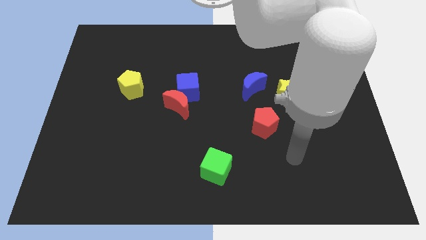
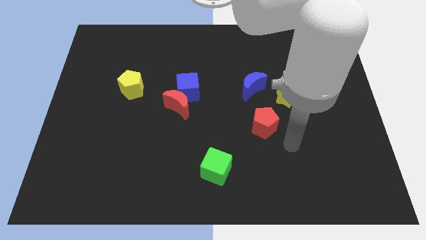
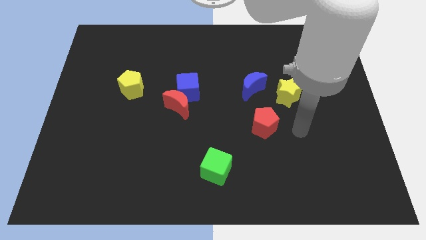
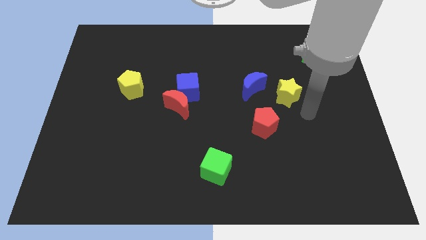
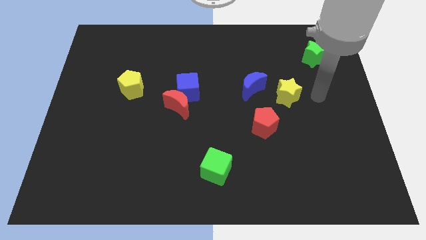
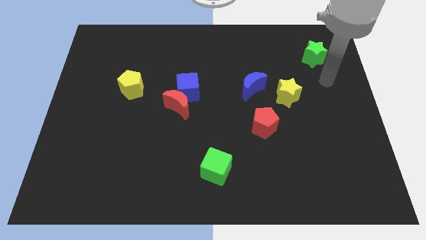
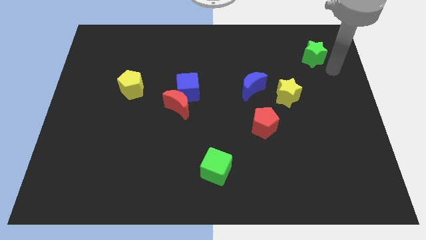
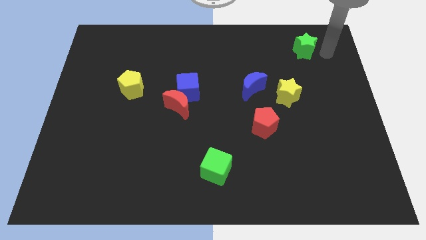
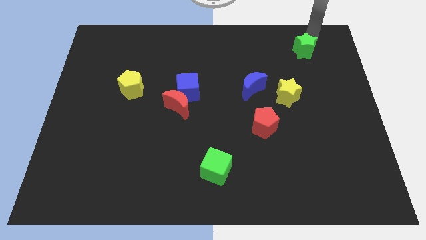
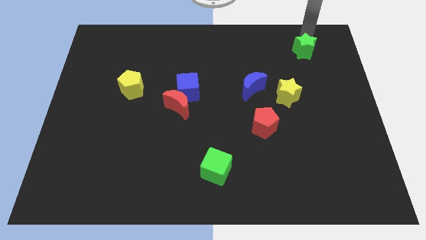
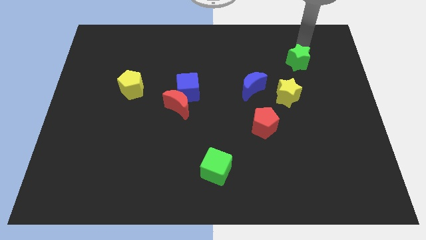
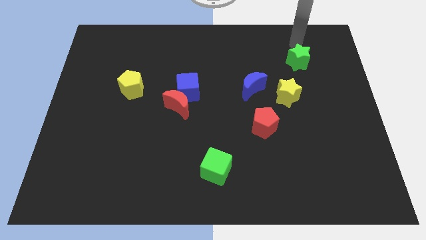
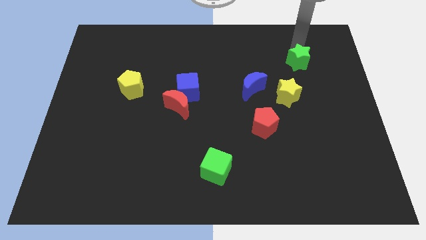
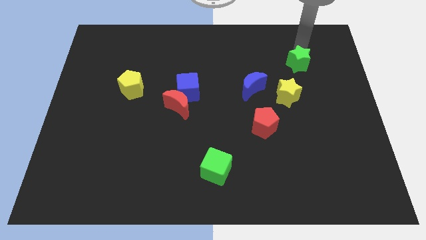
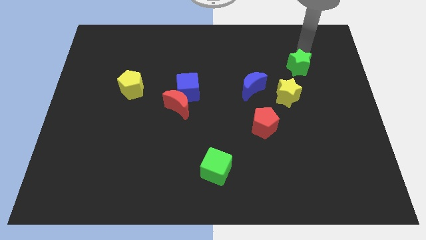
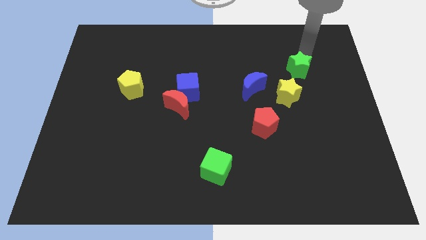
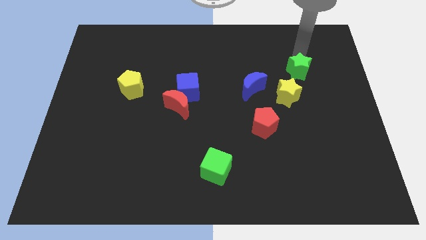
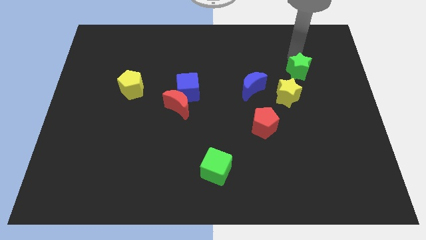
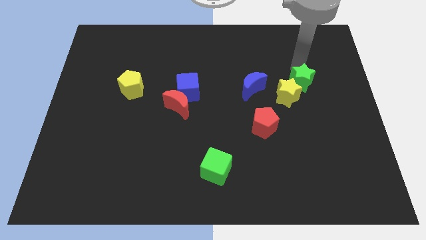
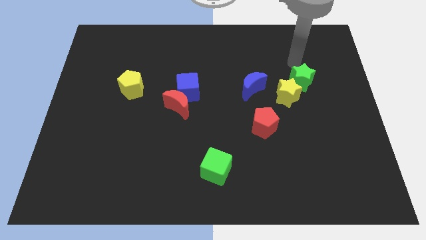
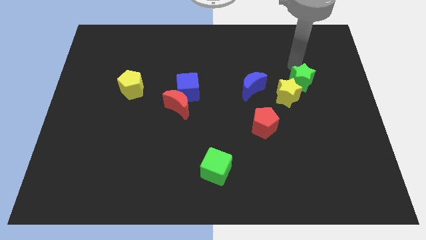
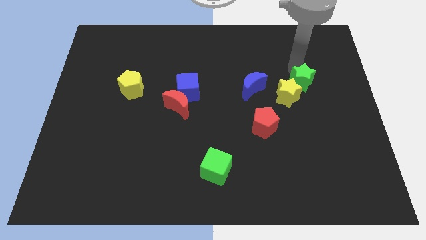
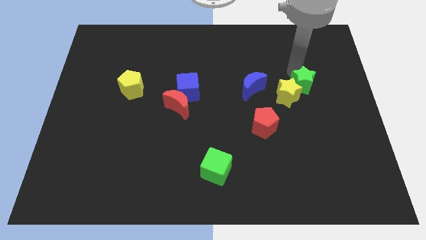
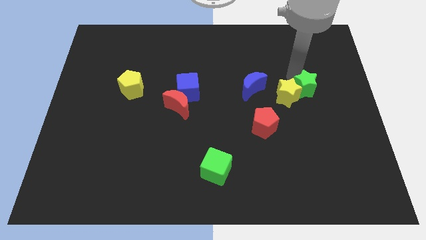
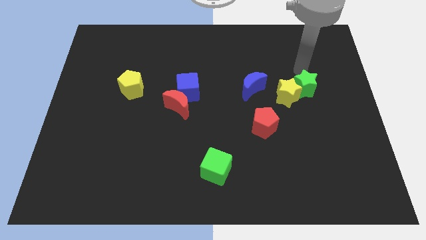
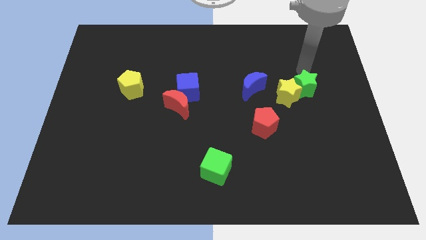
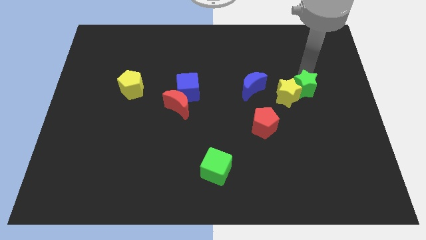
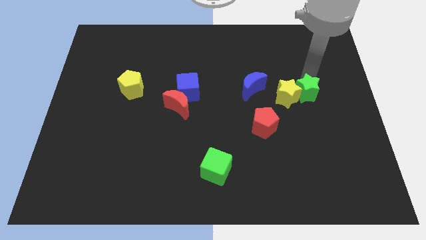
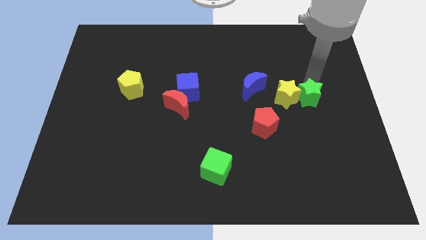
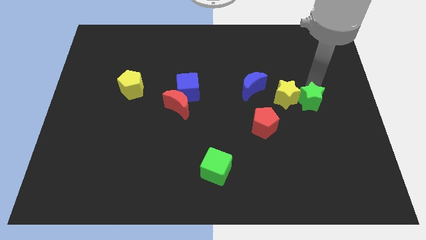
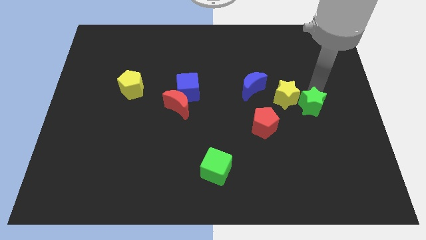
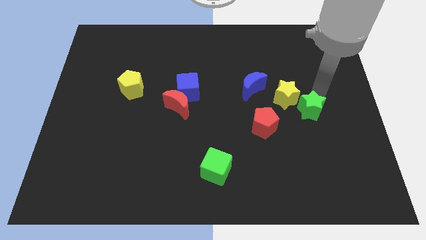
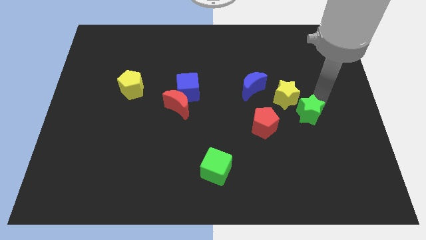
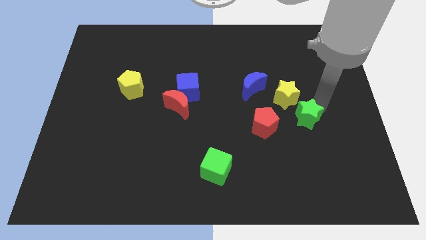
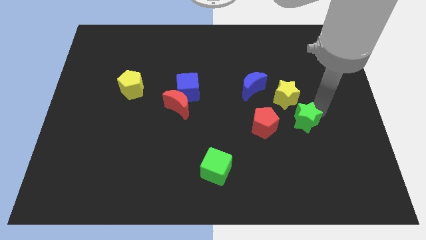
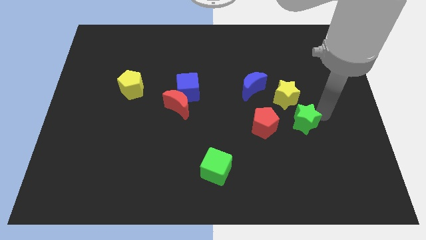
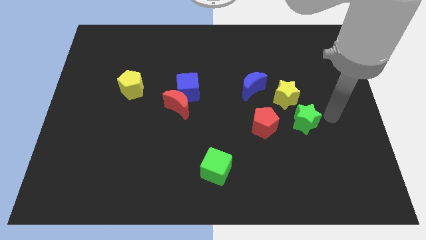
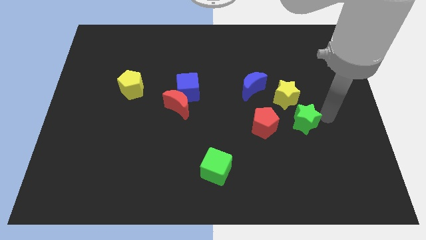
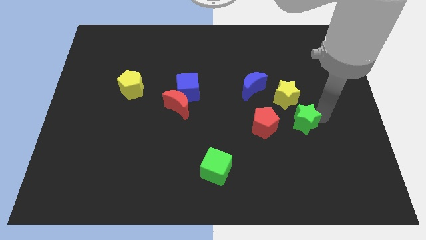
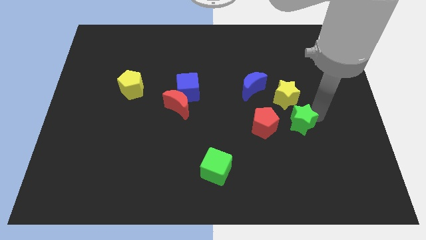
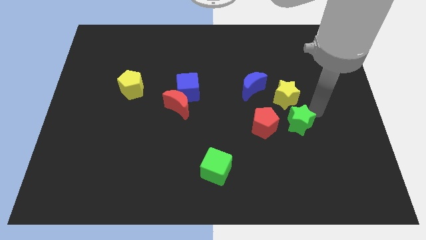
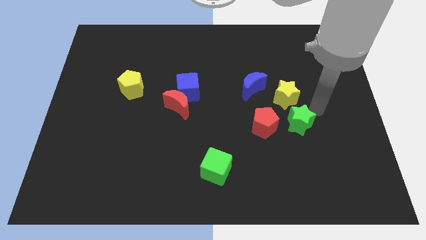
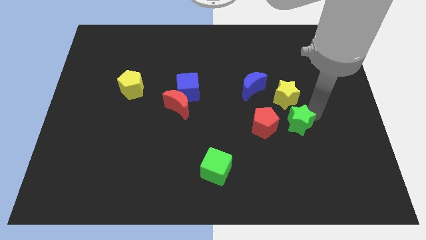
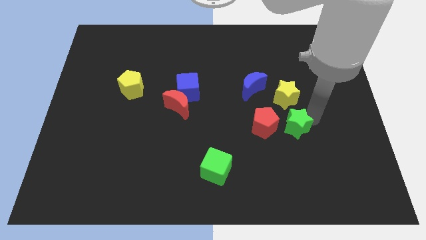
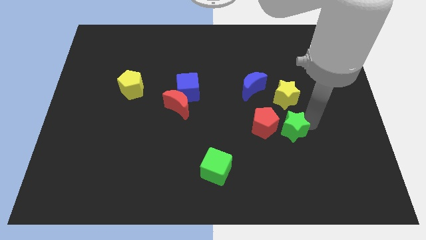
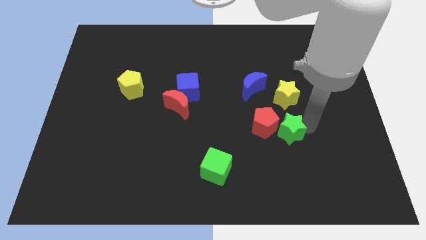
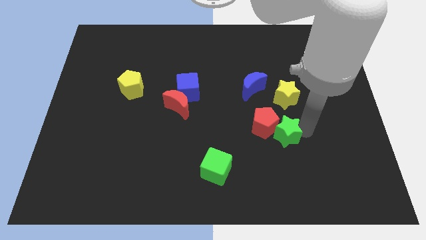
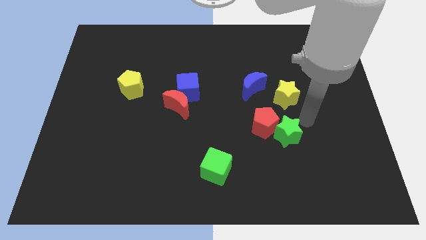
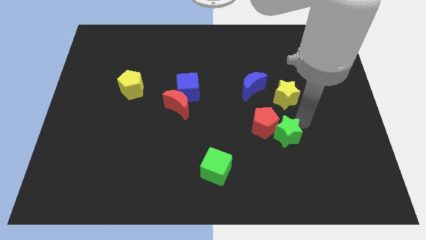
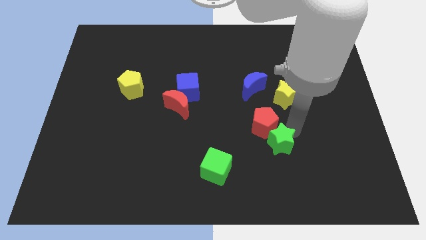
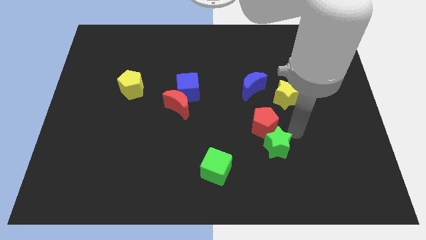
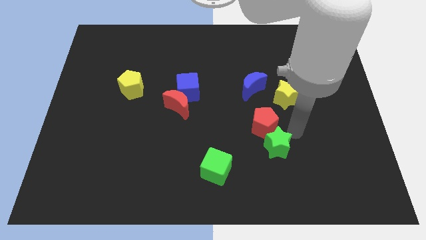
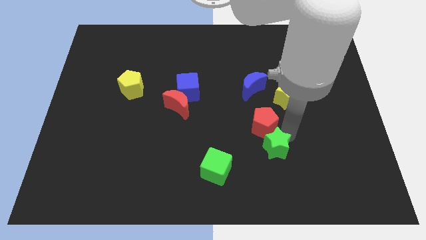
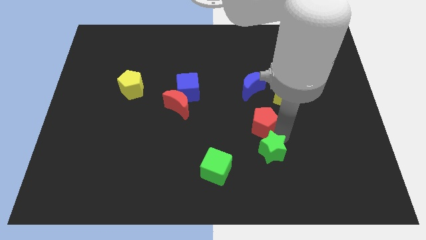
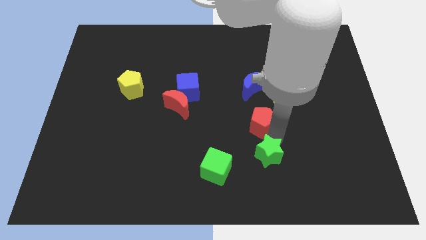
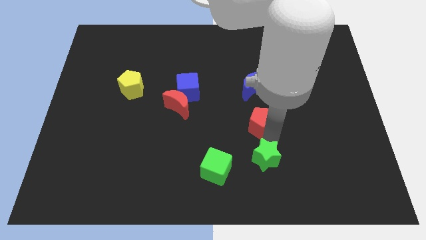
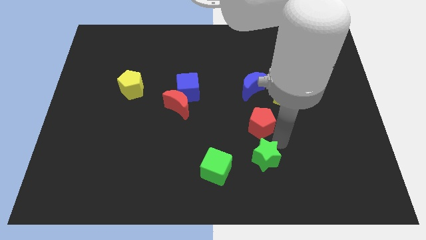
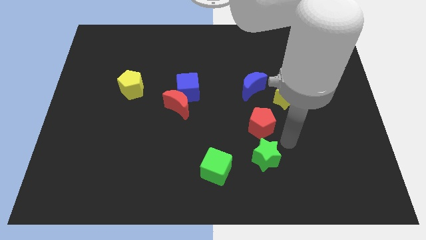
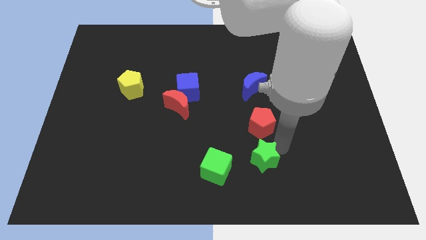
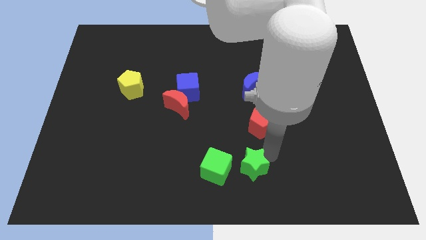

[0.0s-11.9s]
push the green star to the bottom

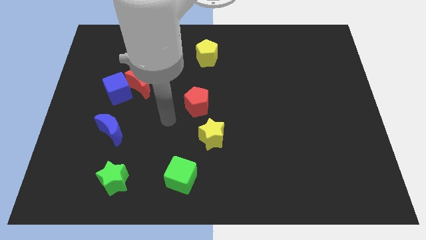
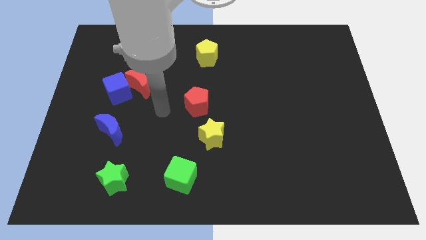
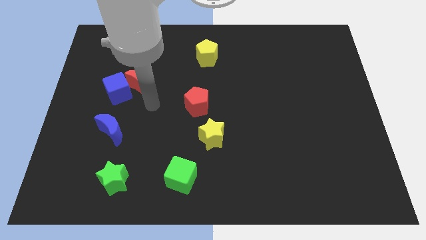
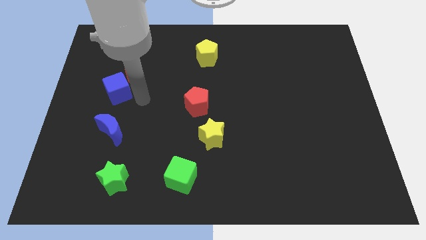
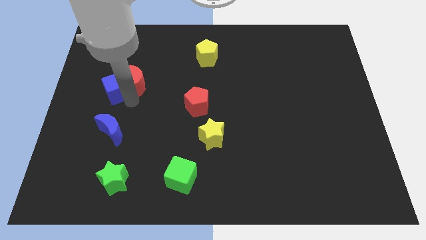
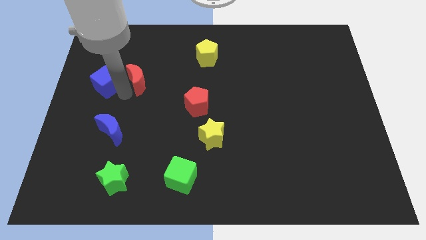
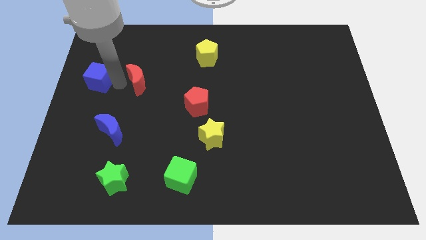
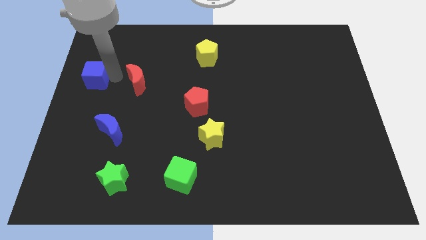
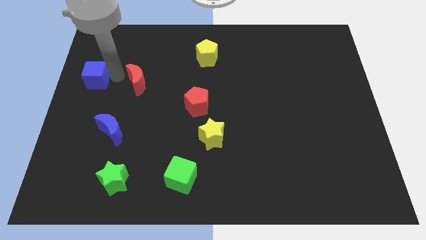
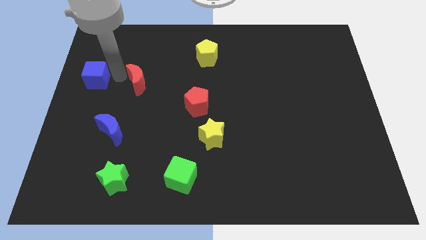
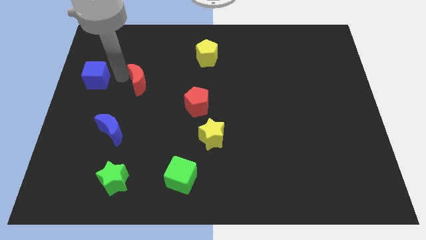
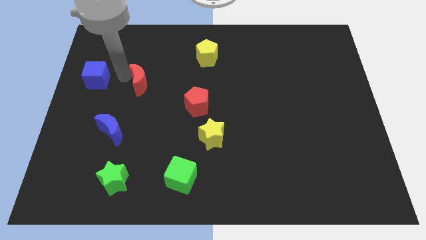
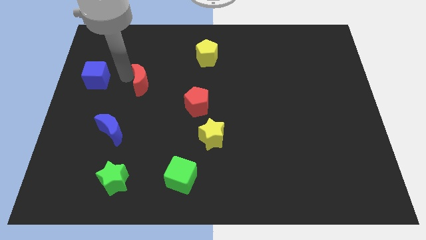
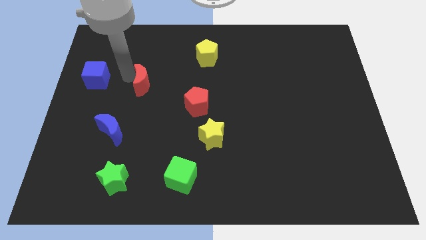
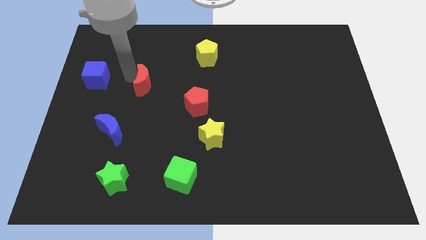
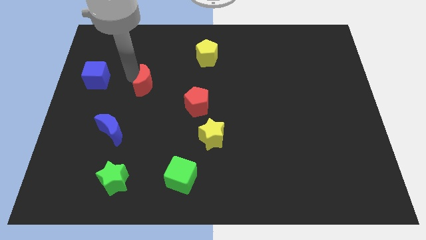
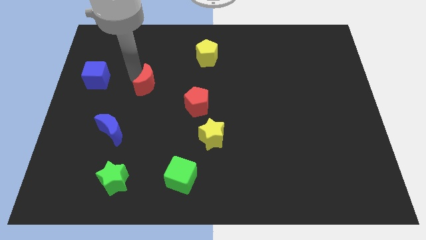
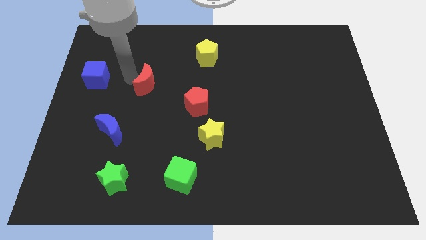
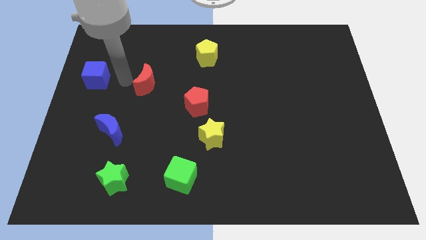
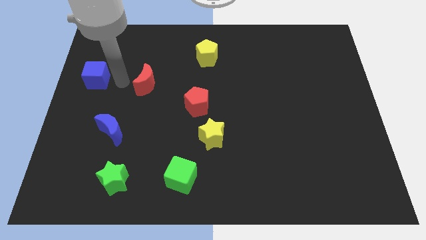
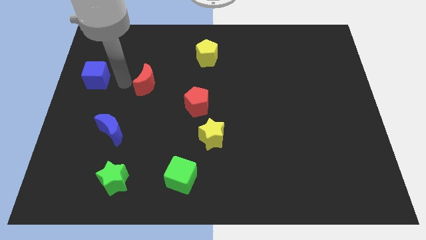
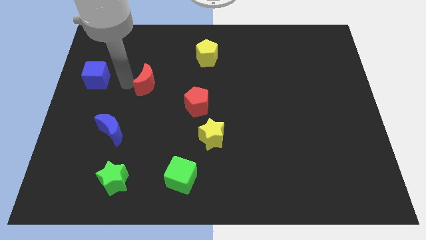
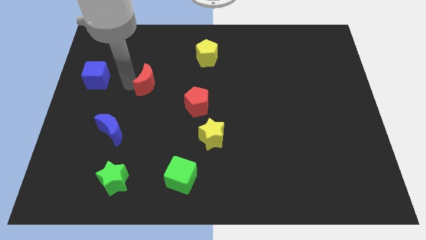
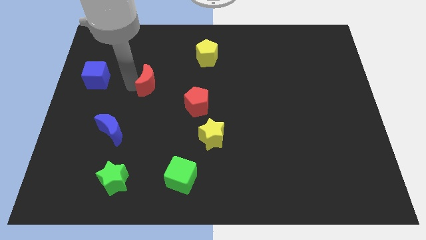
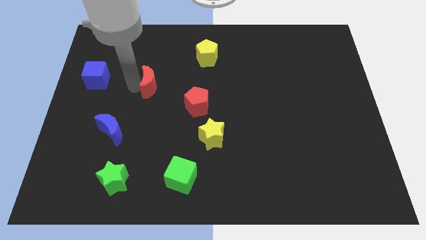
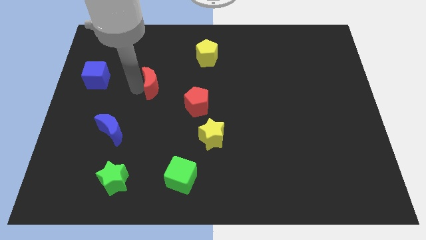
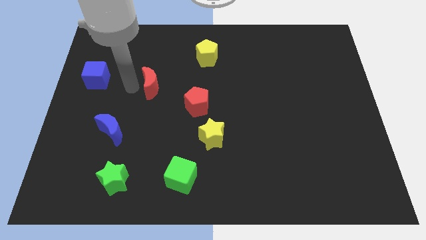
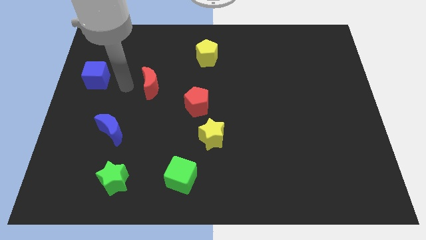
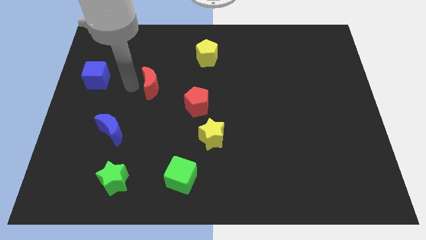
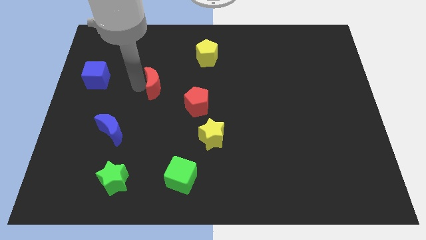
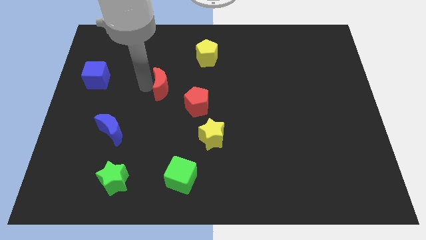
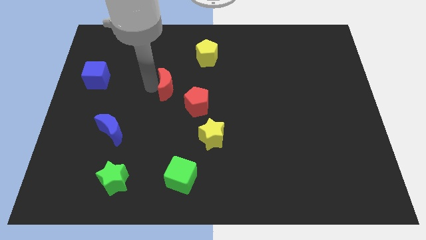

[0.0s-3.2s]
push the red moon to the middle
